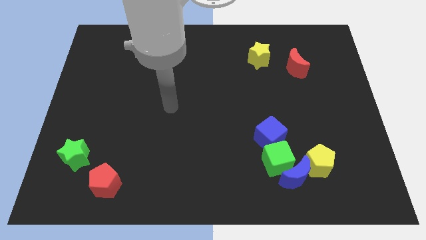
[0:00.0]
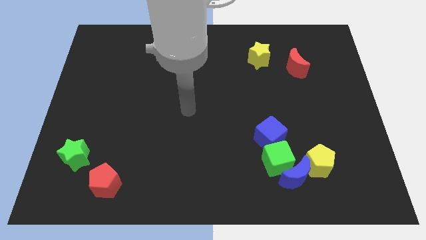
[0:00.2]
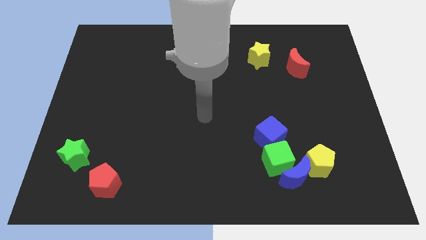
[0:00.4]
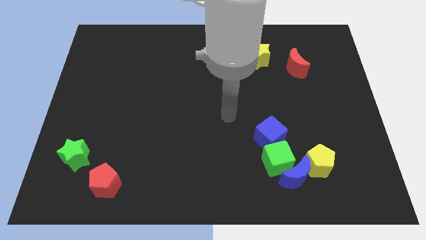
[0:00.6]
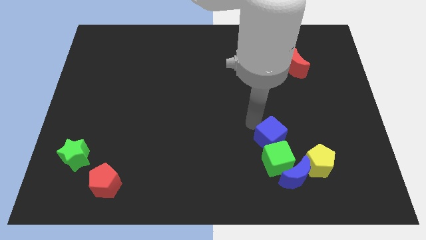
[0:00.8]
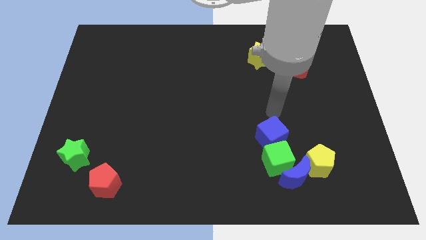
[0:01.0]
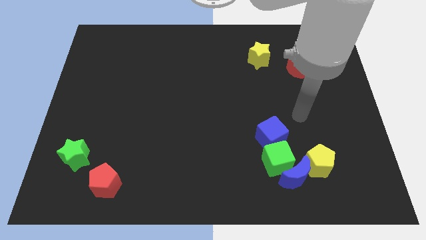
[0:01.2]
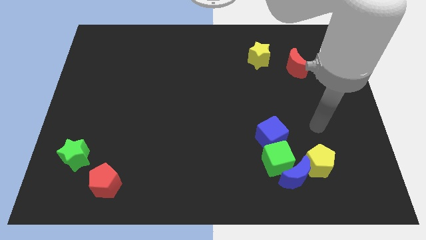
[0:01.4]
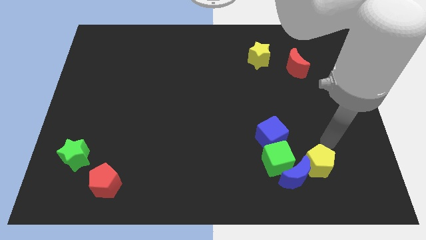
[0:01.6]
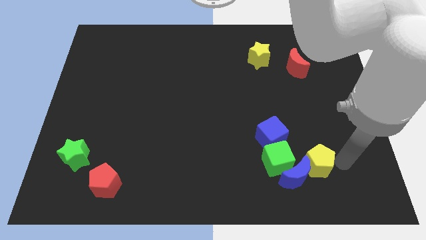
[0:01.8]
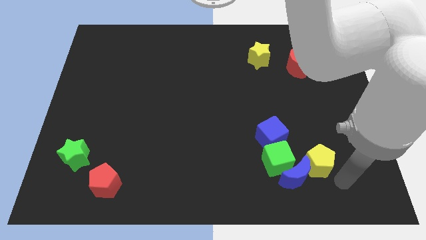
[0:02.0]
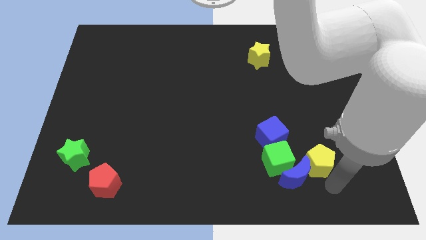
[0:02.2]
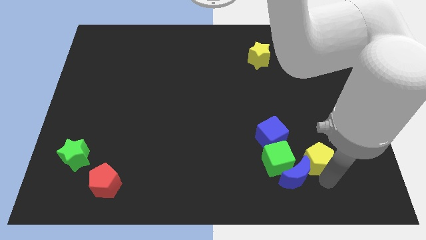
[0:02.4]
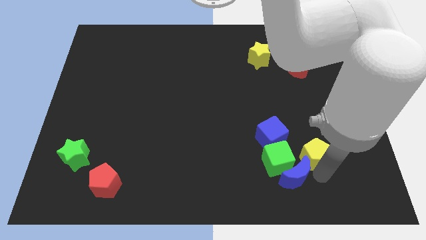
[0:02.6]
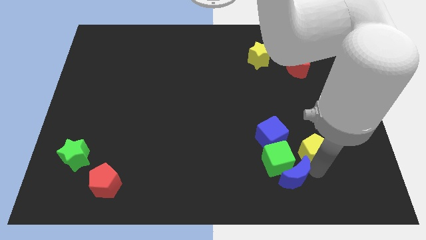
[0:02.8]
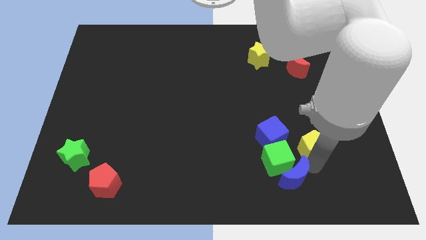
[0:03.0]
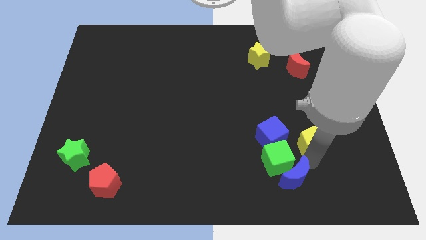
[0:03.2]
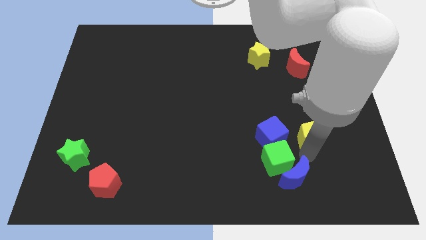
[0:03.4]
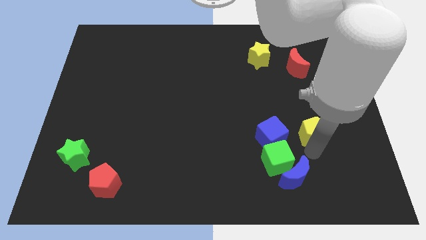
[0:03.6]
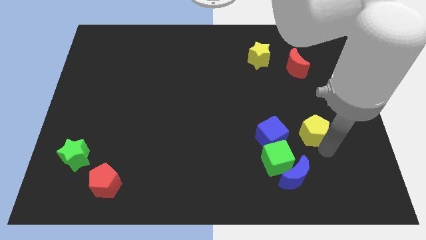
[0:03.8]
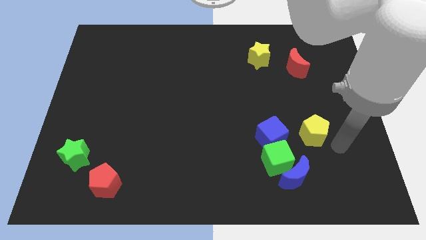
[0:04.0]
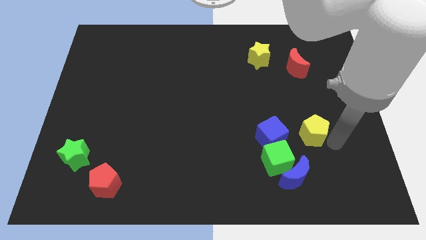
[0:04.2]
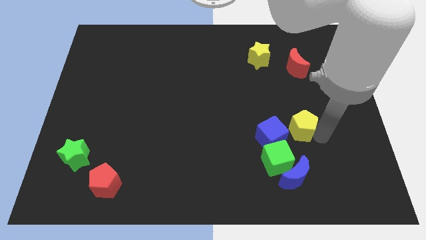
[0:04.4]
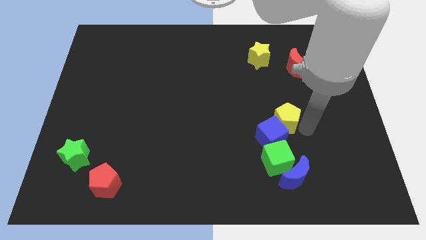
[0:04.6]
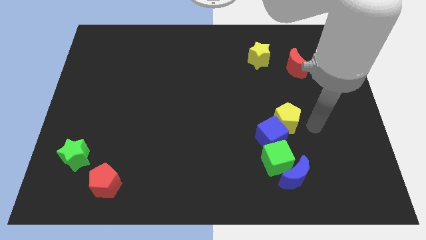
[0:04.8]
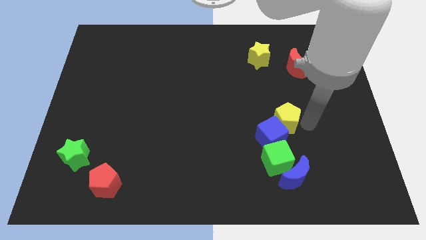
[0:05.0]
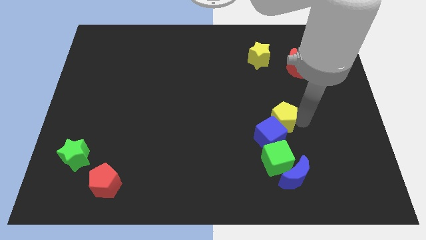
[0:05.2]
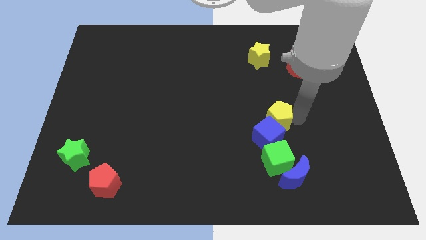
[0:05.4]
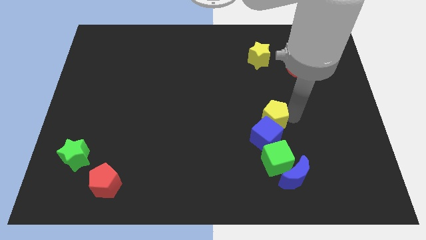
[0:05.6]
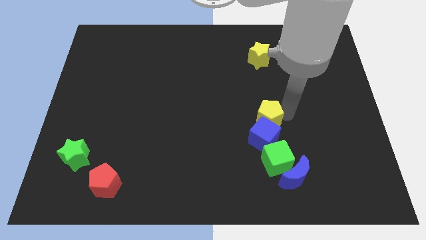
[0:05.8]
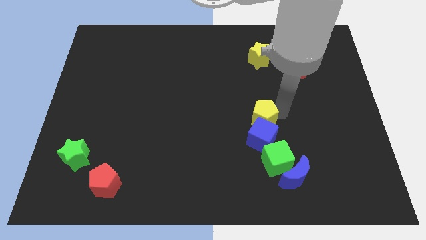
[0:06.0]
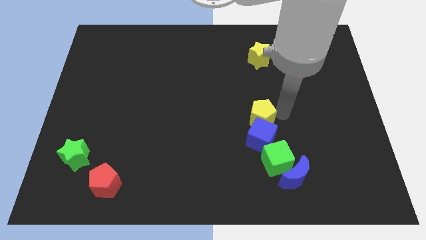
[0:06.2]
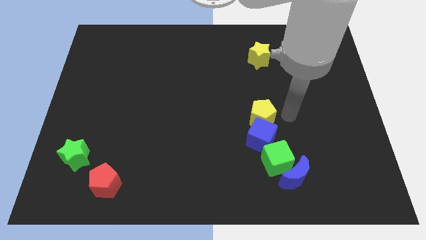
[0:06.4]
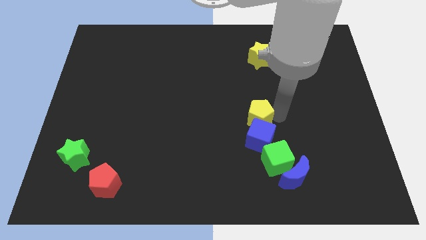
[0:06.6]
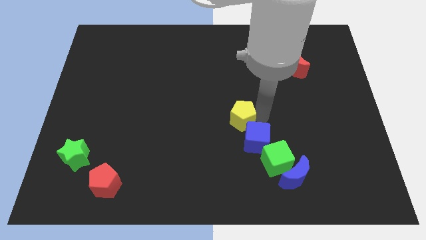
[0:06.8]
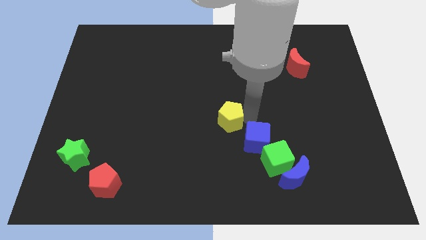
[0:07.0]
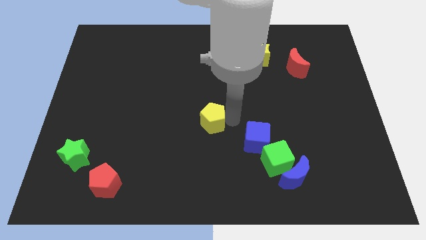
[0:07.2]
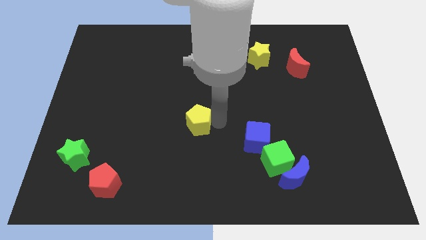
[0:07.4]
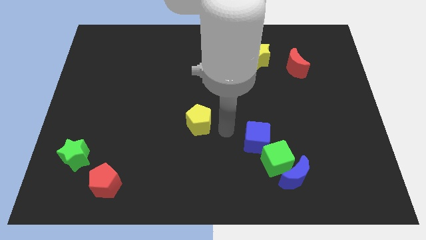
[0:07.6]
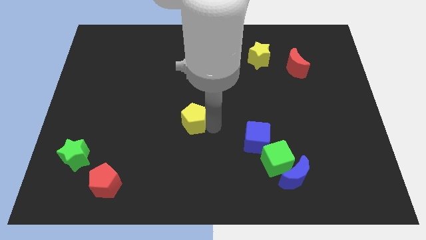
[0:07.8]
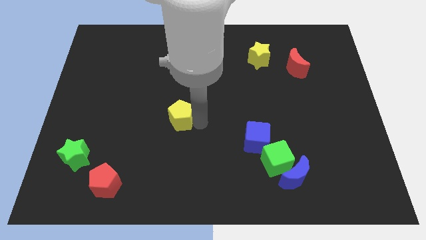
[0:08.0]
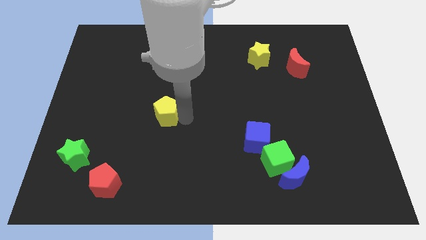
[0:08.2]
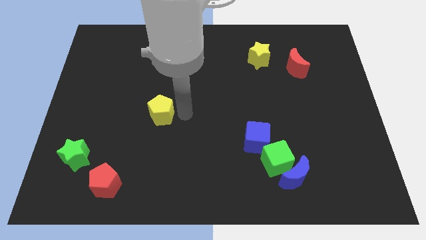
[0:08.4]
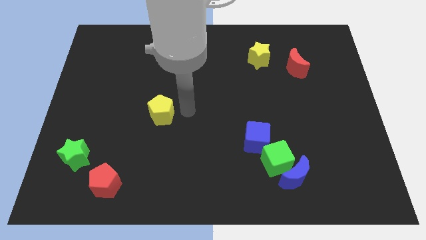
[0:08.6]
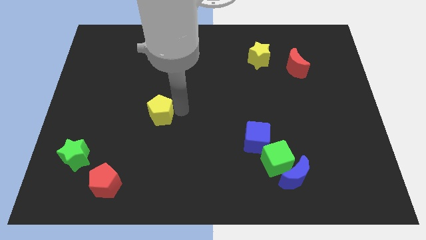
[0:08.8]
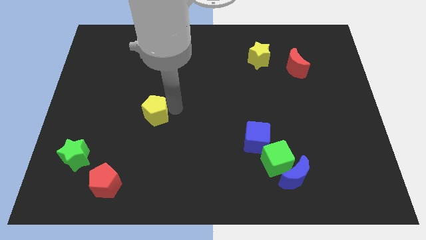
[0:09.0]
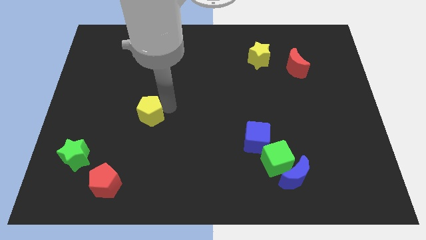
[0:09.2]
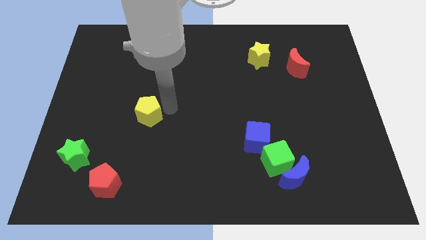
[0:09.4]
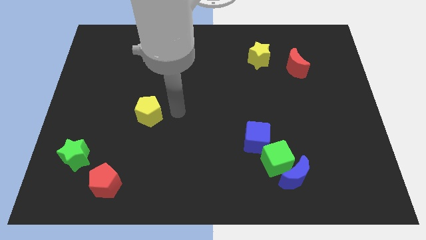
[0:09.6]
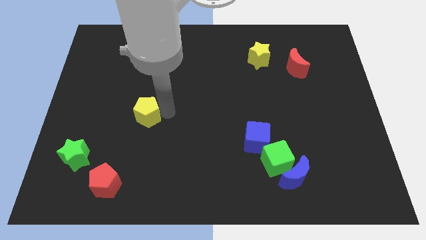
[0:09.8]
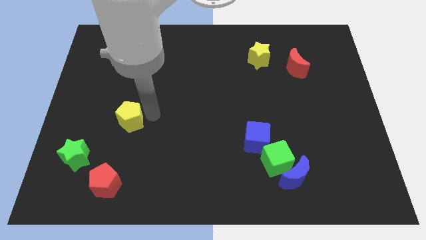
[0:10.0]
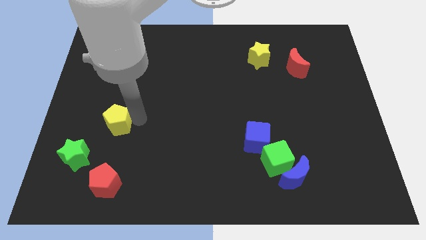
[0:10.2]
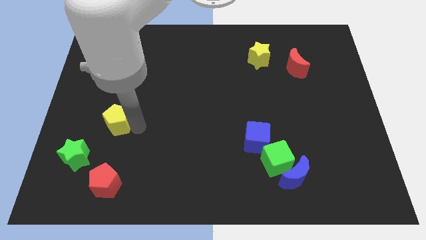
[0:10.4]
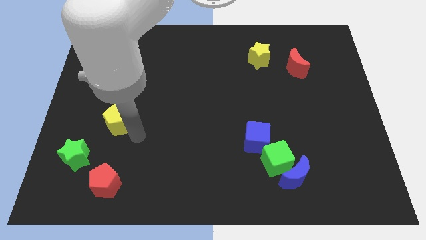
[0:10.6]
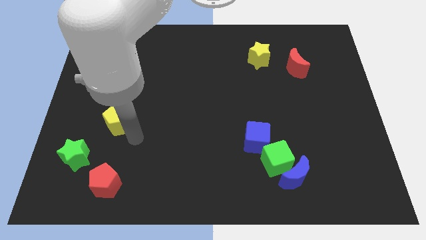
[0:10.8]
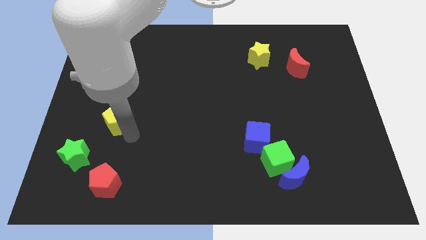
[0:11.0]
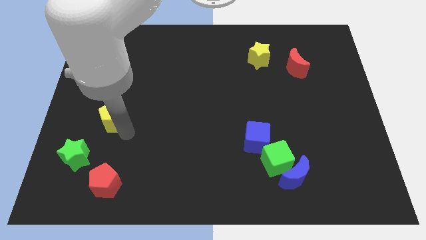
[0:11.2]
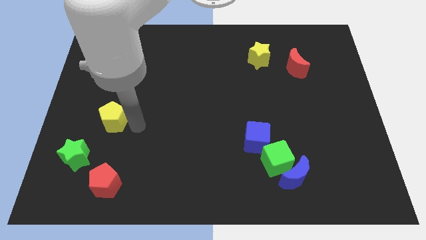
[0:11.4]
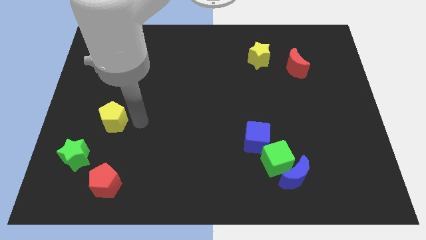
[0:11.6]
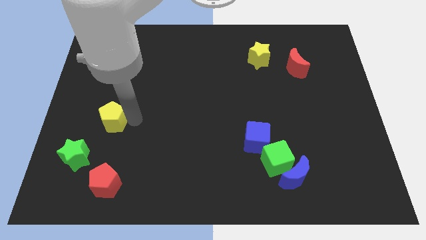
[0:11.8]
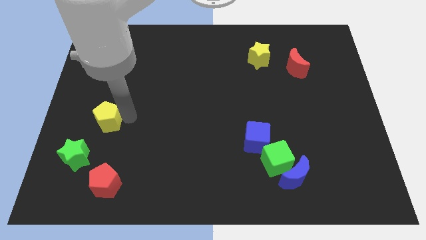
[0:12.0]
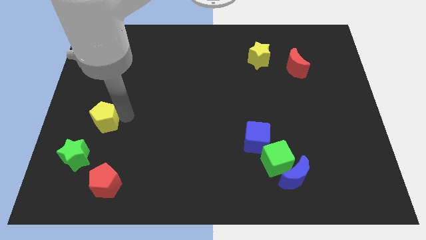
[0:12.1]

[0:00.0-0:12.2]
push the yellow pentagon to the top side of the green star

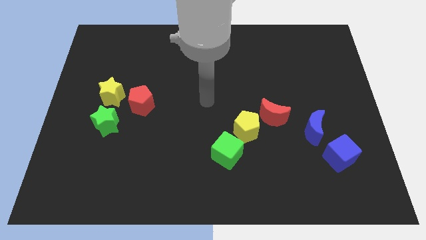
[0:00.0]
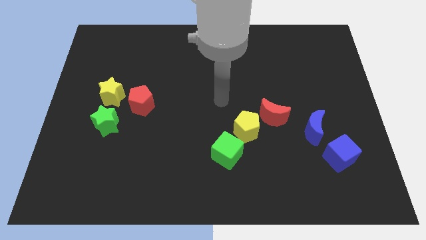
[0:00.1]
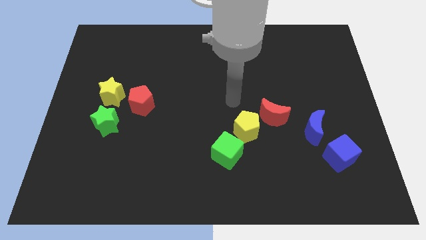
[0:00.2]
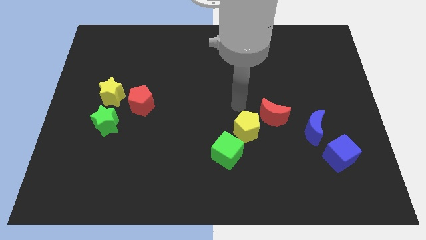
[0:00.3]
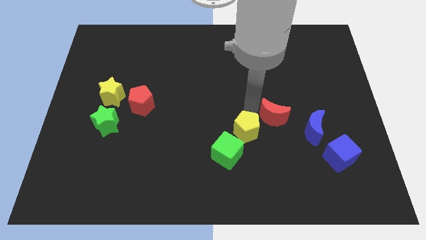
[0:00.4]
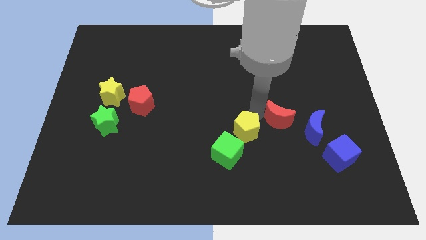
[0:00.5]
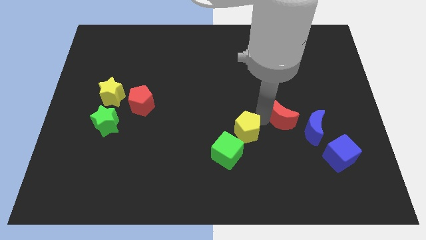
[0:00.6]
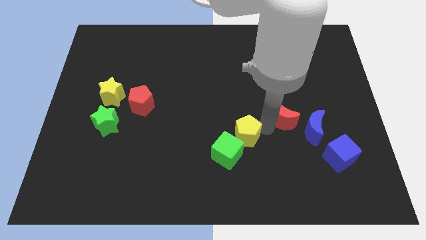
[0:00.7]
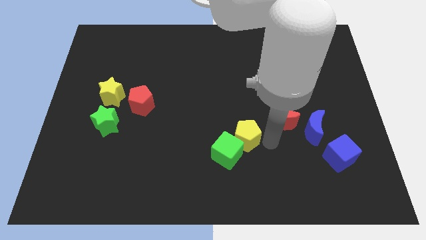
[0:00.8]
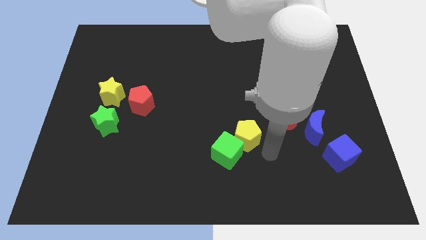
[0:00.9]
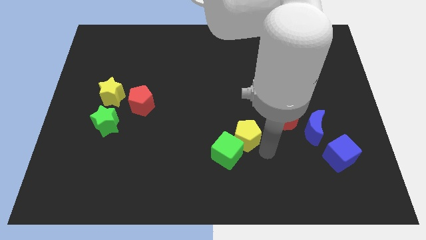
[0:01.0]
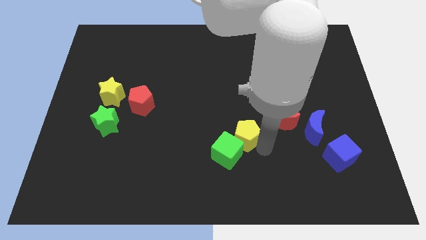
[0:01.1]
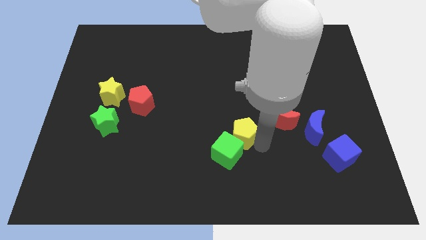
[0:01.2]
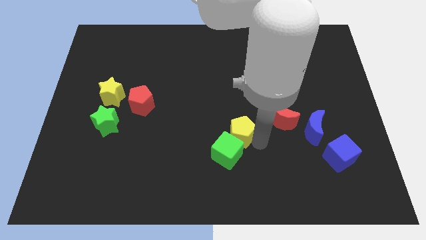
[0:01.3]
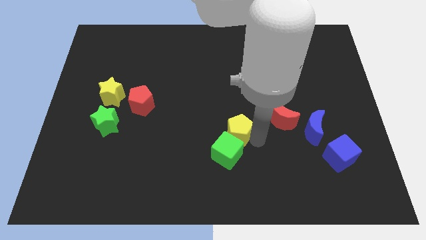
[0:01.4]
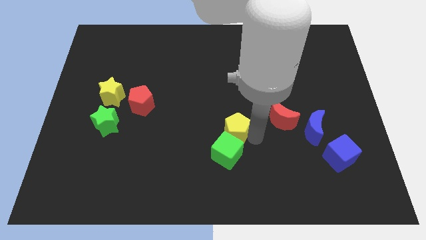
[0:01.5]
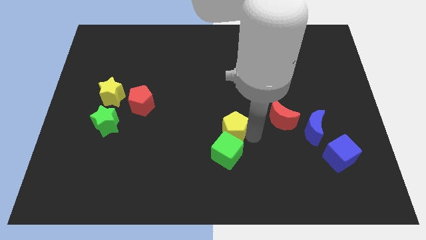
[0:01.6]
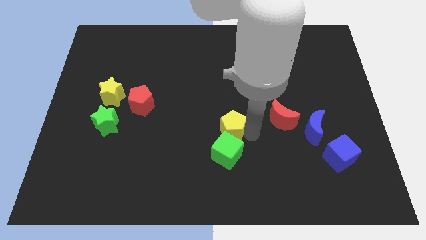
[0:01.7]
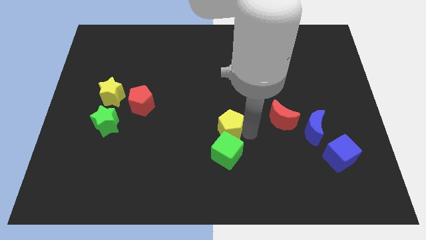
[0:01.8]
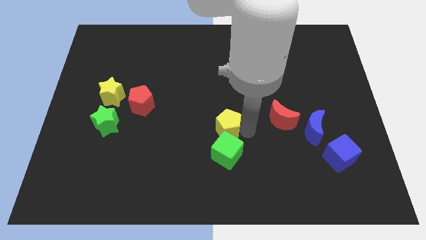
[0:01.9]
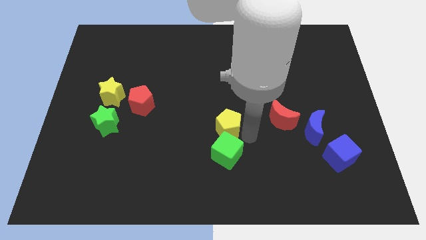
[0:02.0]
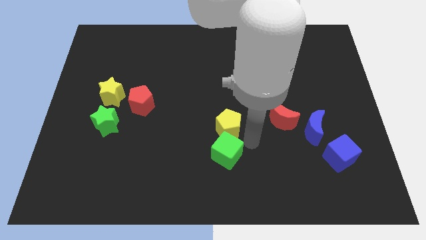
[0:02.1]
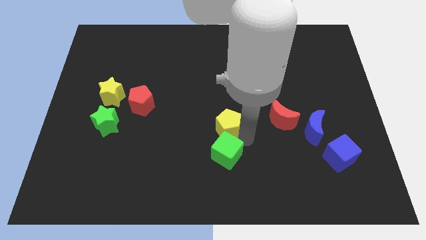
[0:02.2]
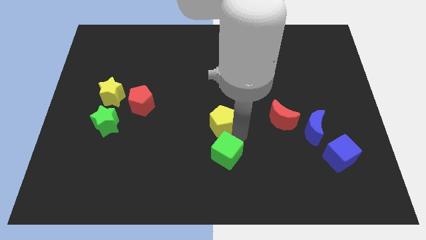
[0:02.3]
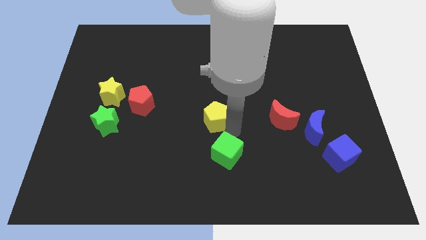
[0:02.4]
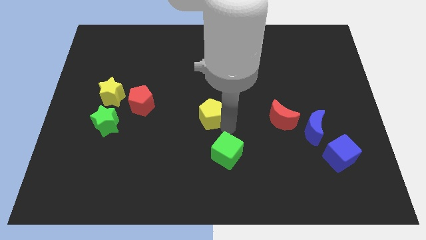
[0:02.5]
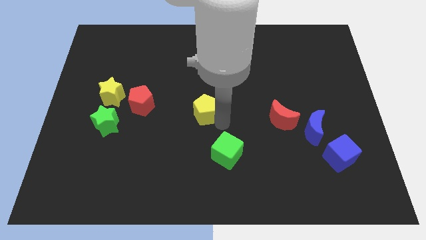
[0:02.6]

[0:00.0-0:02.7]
move the yellow pentagon right of the red pentagon
